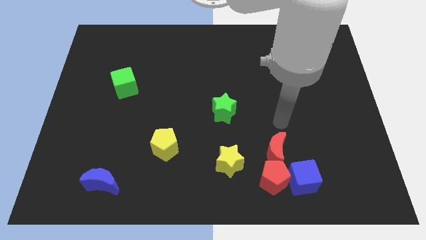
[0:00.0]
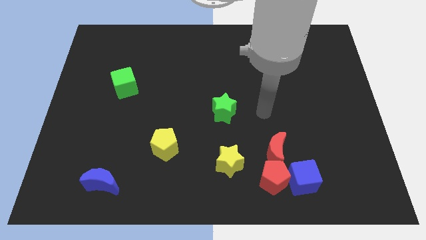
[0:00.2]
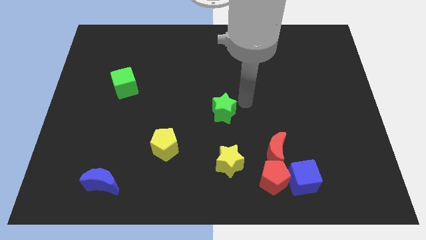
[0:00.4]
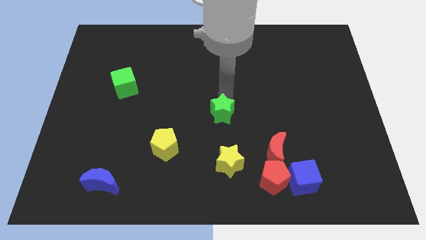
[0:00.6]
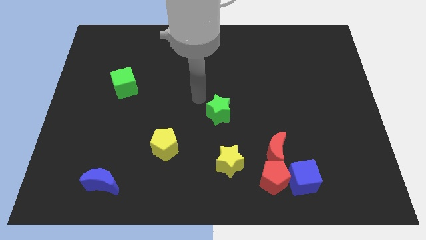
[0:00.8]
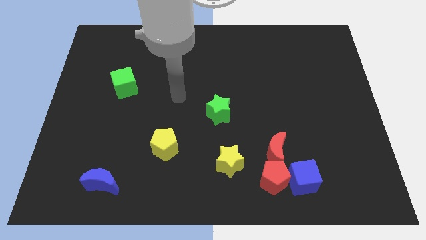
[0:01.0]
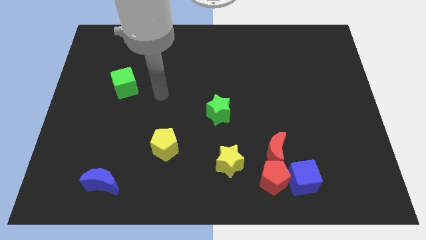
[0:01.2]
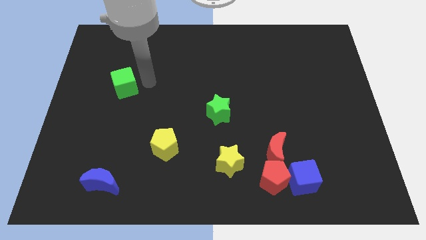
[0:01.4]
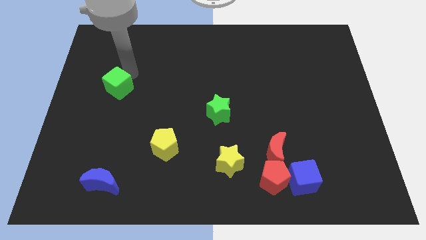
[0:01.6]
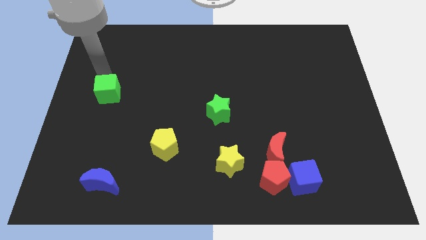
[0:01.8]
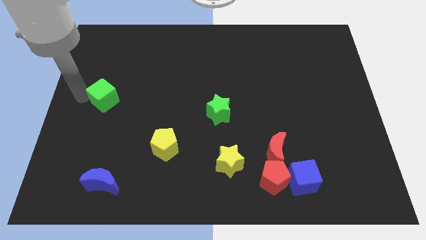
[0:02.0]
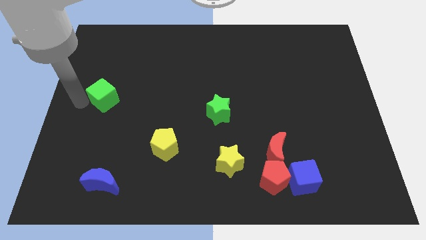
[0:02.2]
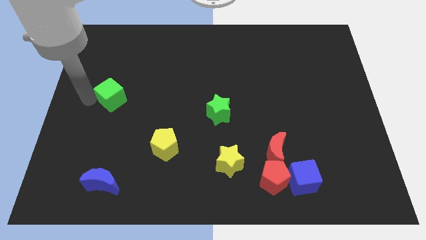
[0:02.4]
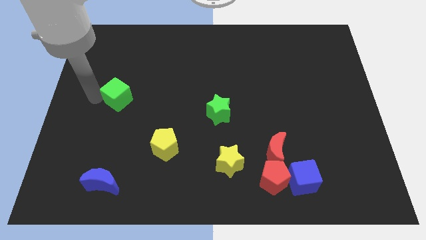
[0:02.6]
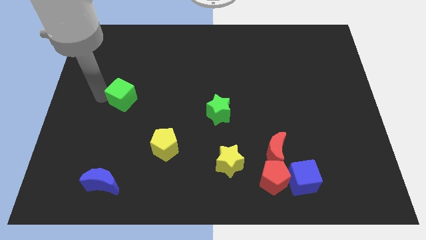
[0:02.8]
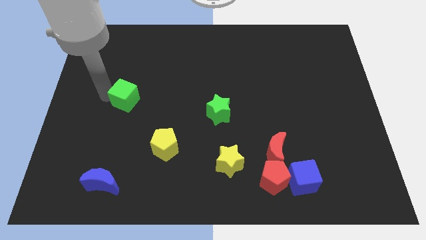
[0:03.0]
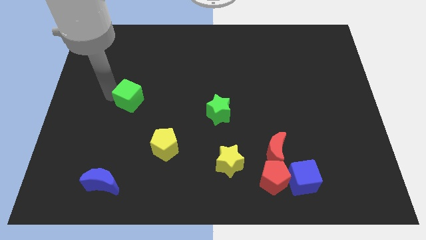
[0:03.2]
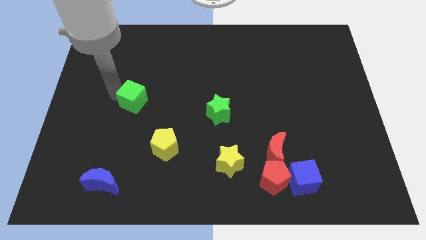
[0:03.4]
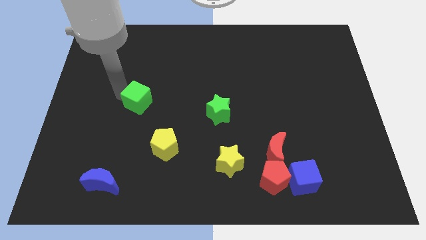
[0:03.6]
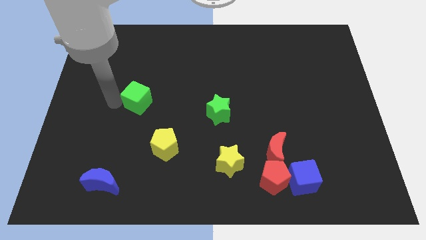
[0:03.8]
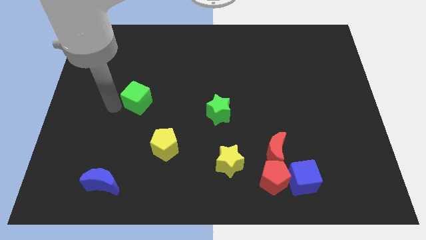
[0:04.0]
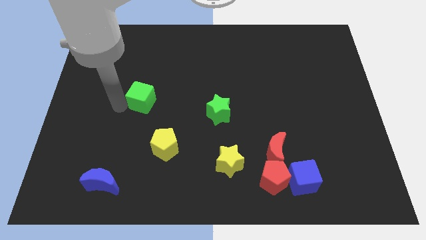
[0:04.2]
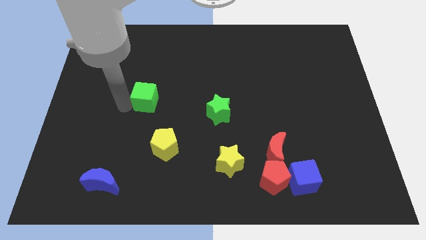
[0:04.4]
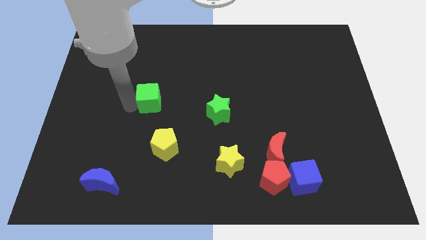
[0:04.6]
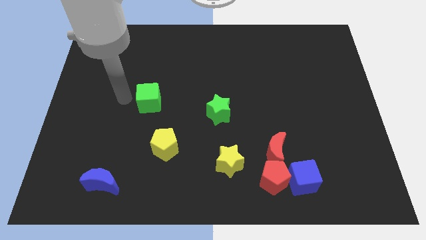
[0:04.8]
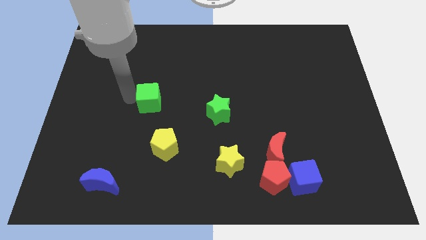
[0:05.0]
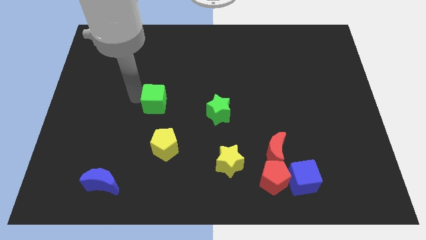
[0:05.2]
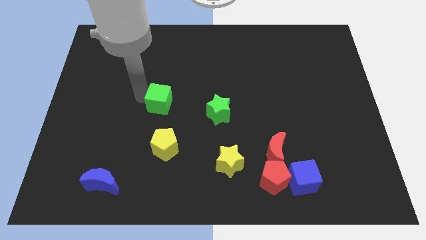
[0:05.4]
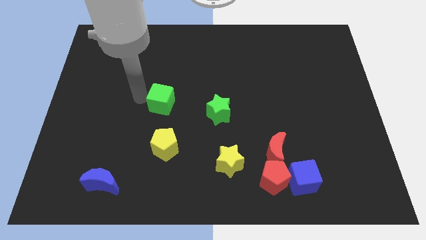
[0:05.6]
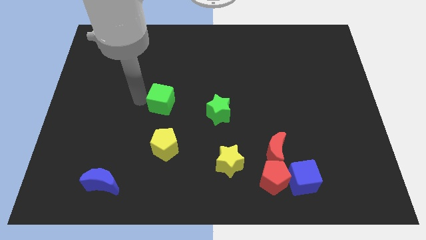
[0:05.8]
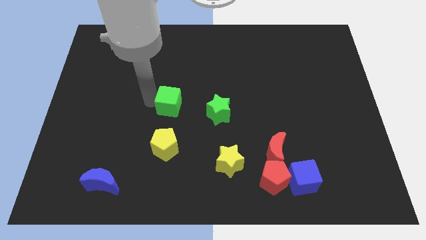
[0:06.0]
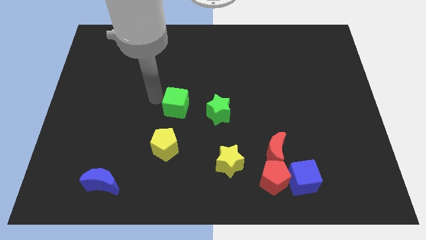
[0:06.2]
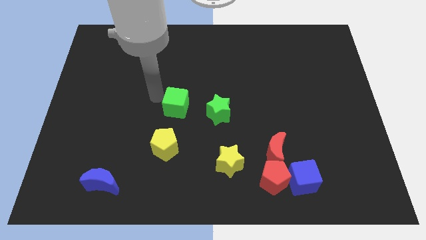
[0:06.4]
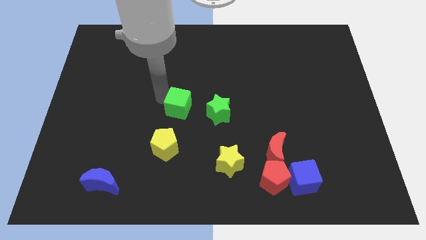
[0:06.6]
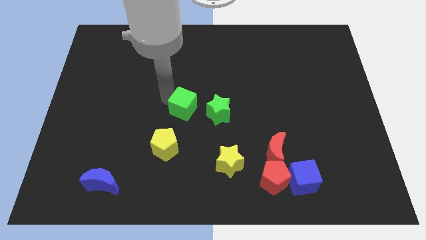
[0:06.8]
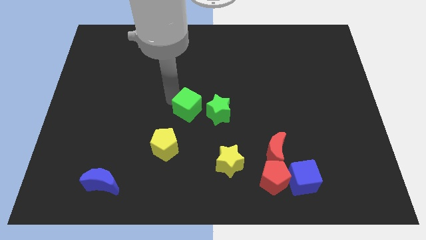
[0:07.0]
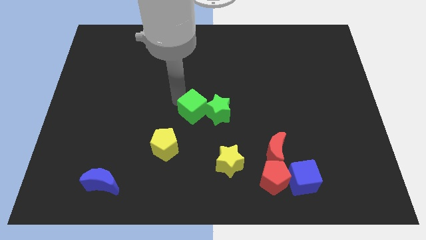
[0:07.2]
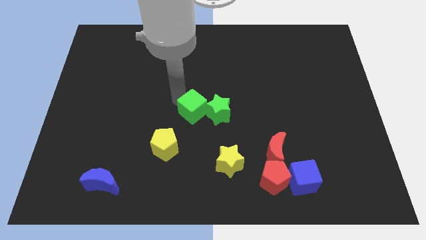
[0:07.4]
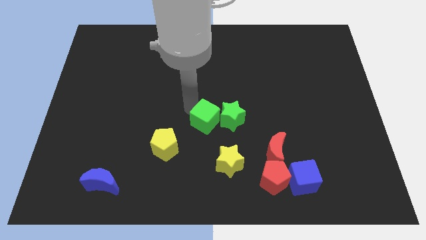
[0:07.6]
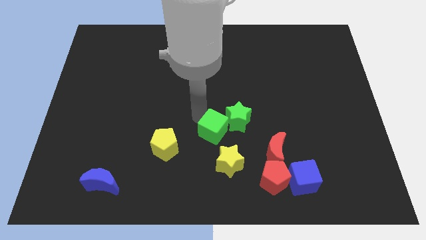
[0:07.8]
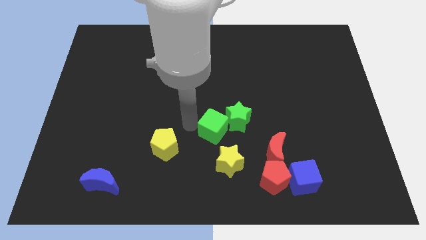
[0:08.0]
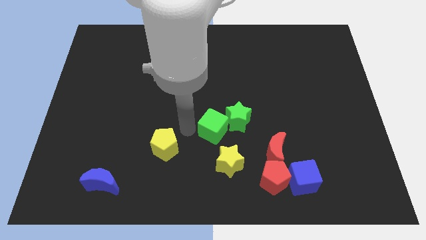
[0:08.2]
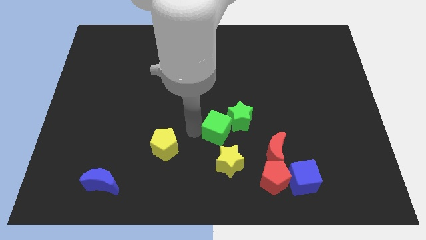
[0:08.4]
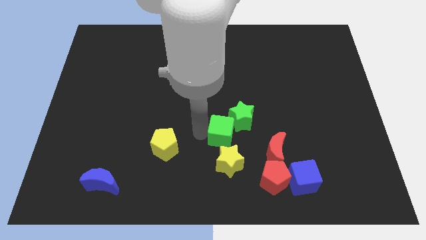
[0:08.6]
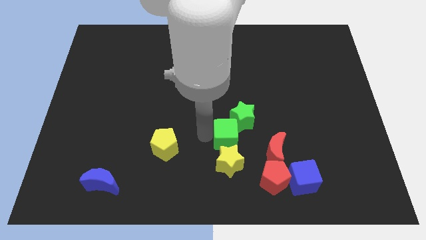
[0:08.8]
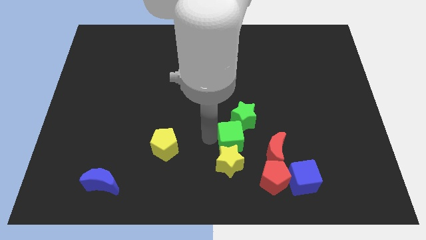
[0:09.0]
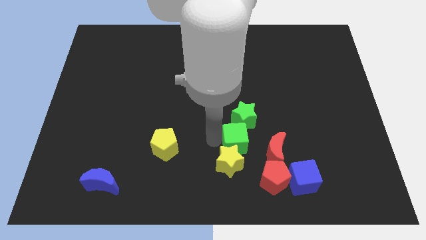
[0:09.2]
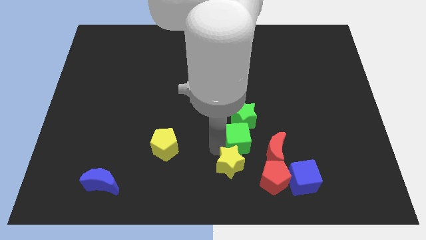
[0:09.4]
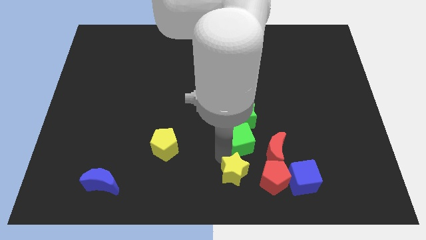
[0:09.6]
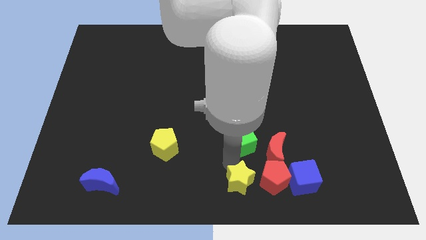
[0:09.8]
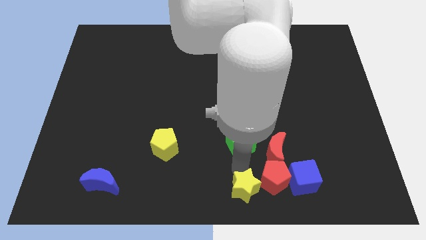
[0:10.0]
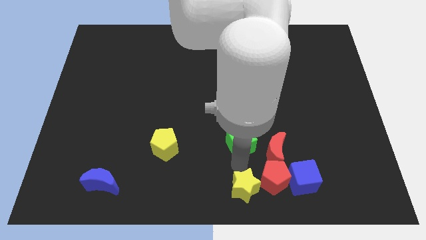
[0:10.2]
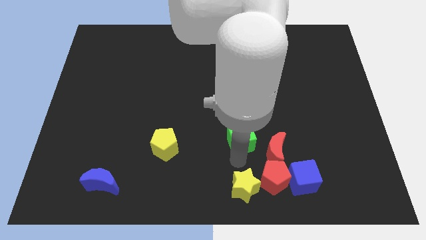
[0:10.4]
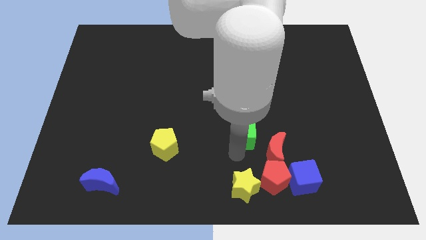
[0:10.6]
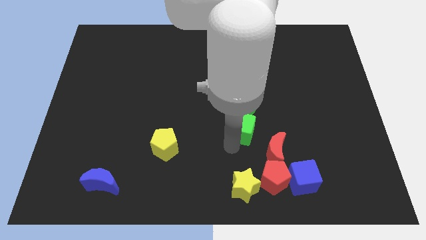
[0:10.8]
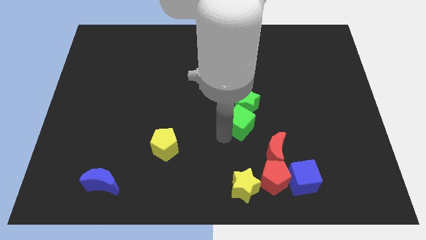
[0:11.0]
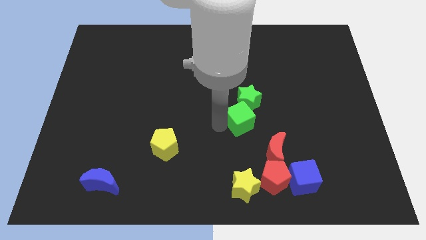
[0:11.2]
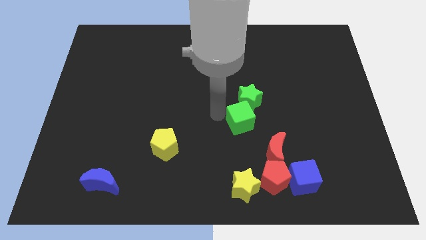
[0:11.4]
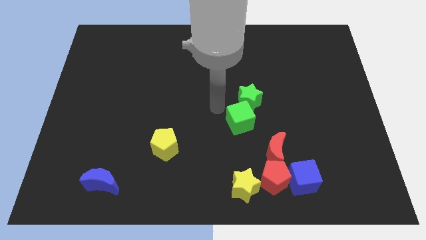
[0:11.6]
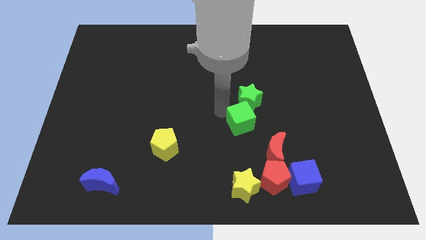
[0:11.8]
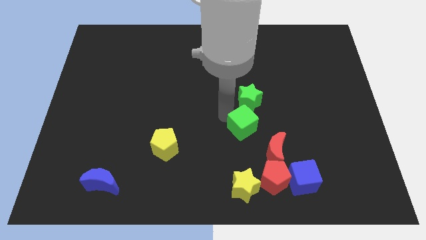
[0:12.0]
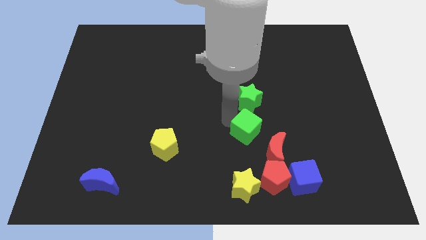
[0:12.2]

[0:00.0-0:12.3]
move the green cube to the top of the red pentagon

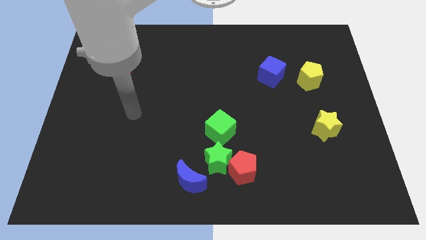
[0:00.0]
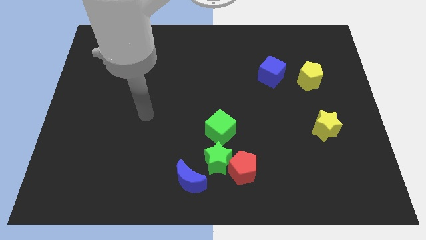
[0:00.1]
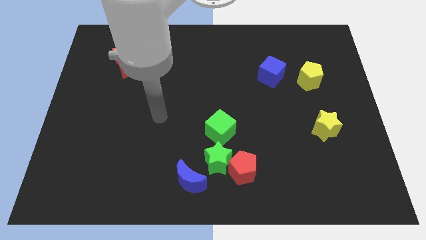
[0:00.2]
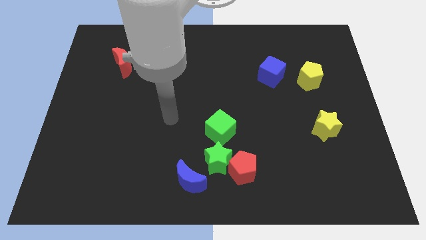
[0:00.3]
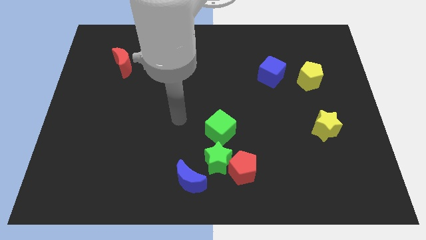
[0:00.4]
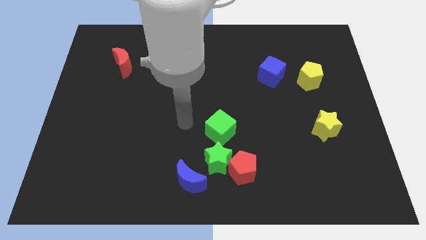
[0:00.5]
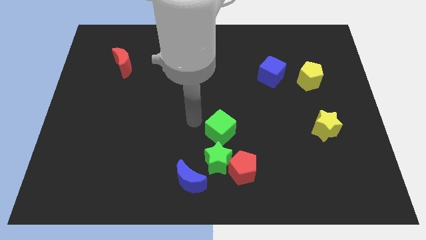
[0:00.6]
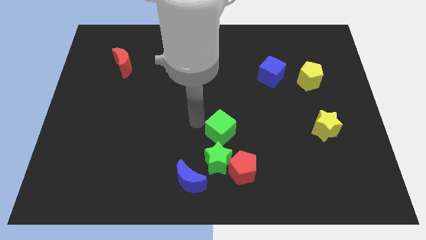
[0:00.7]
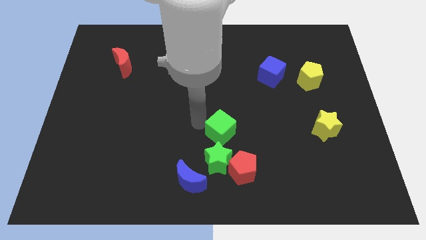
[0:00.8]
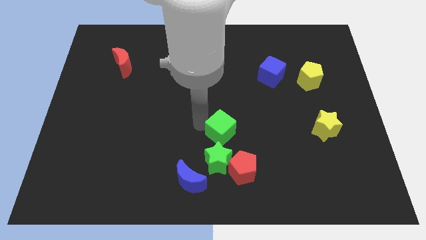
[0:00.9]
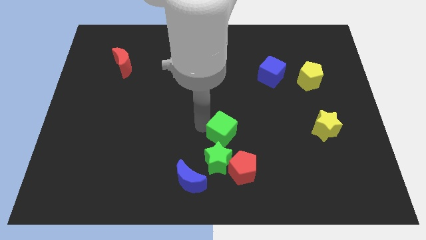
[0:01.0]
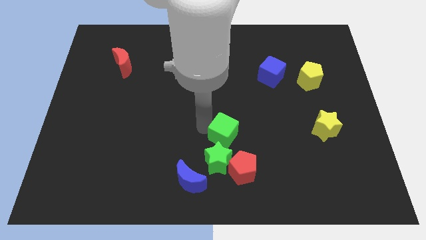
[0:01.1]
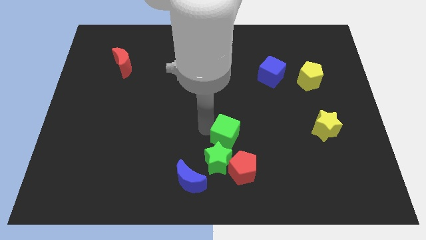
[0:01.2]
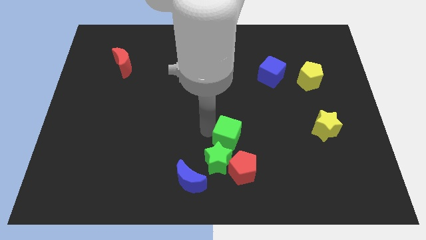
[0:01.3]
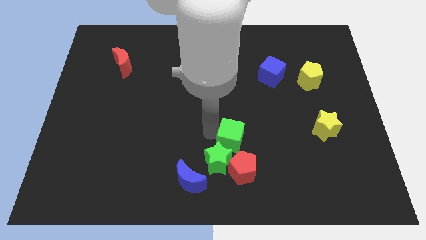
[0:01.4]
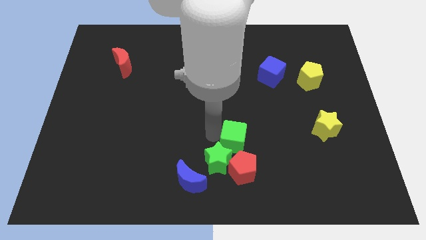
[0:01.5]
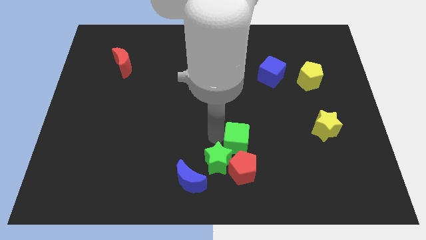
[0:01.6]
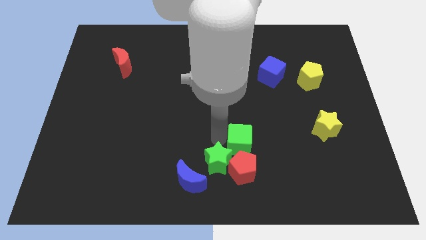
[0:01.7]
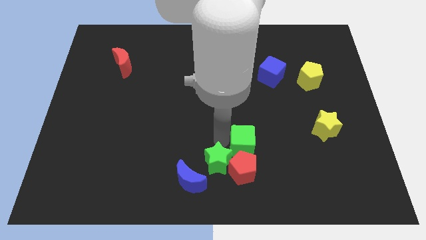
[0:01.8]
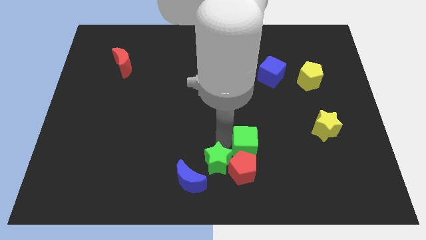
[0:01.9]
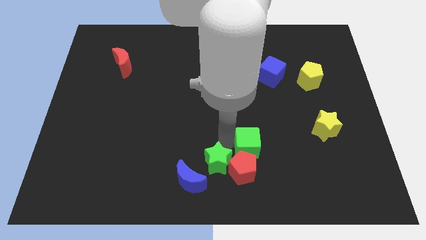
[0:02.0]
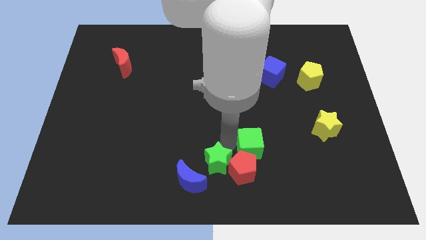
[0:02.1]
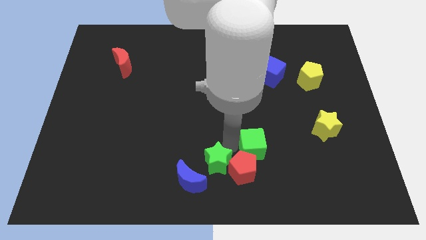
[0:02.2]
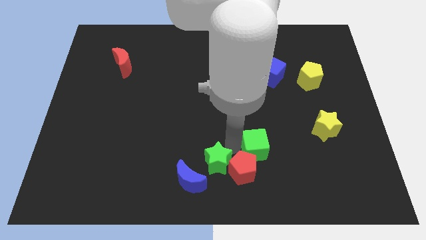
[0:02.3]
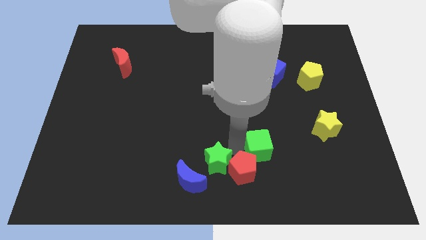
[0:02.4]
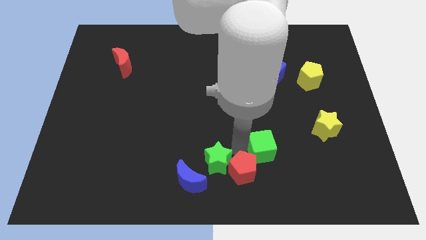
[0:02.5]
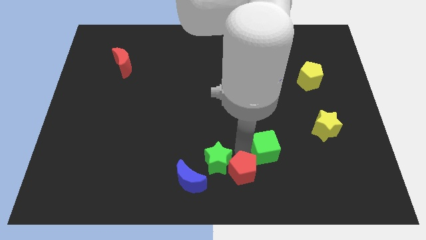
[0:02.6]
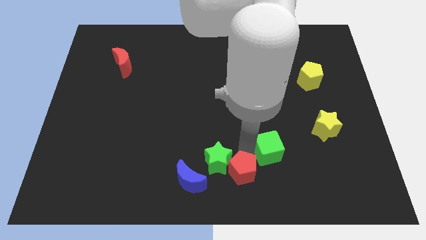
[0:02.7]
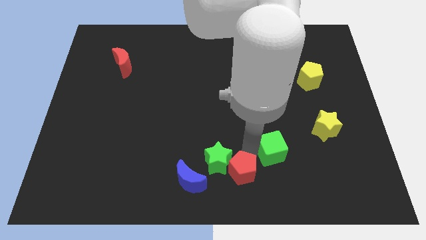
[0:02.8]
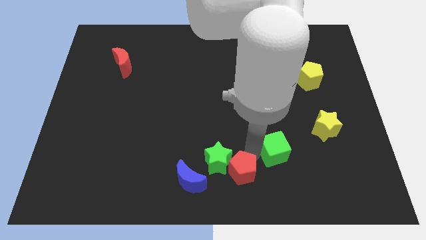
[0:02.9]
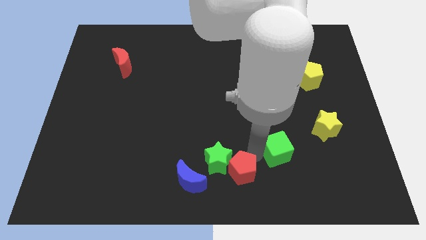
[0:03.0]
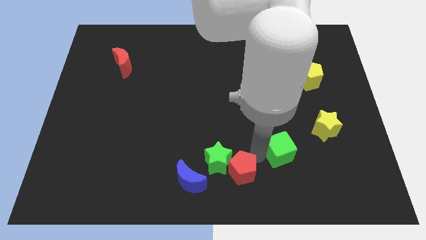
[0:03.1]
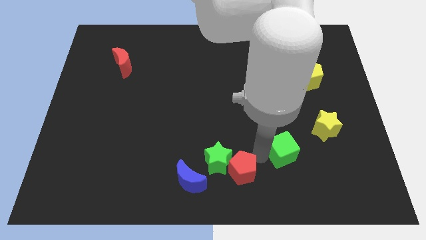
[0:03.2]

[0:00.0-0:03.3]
move the green cube to the bottom left of the yellow star
